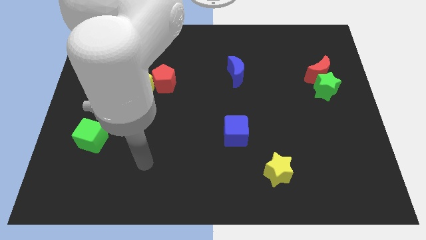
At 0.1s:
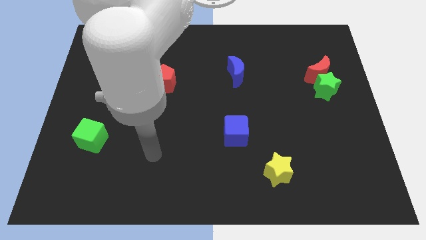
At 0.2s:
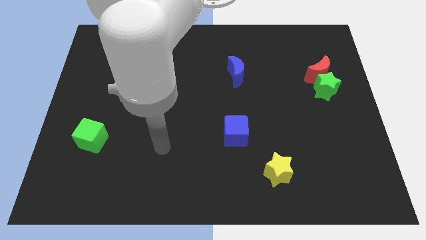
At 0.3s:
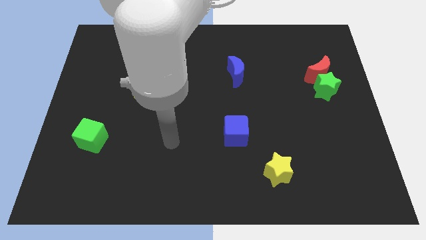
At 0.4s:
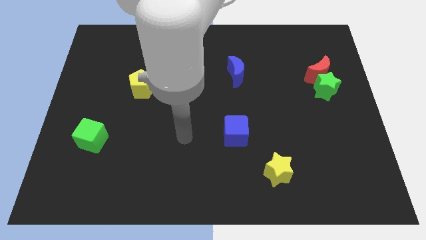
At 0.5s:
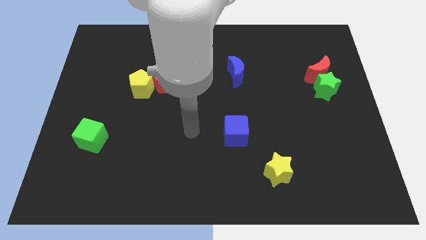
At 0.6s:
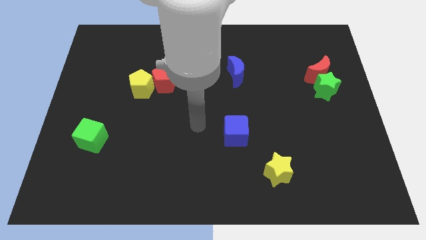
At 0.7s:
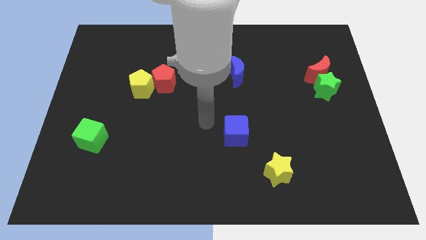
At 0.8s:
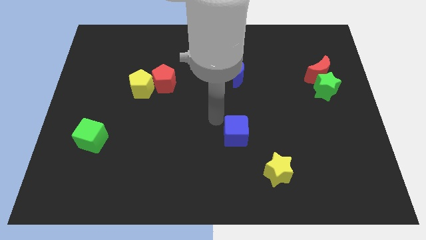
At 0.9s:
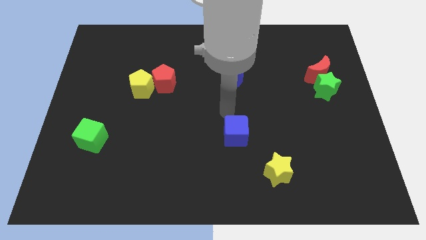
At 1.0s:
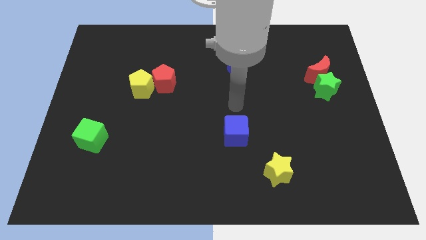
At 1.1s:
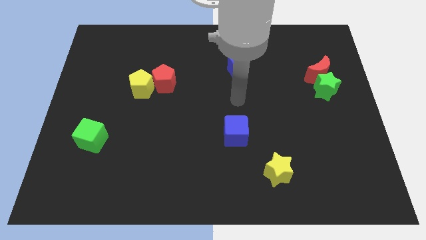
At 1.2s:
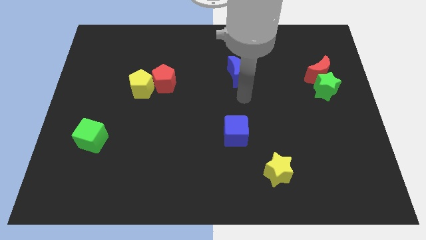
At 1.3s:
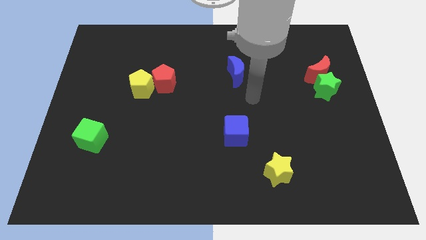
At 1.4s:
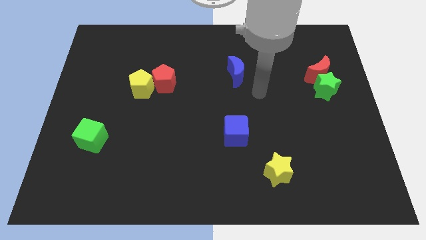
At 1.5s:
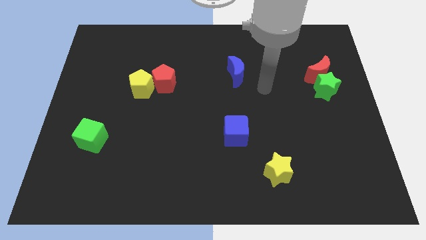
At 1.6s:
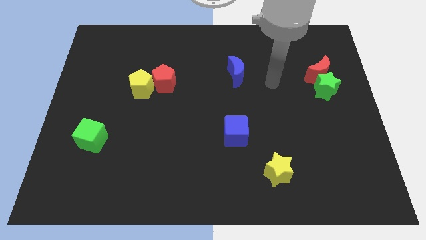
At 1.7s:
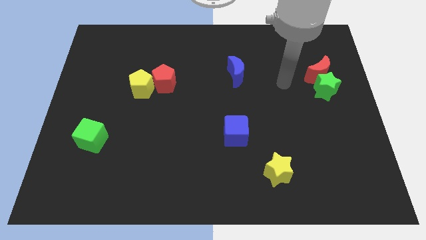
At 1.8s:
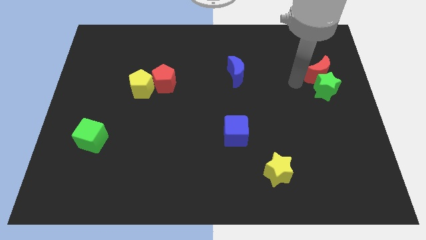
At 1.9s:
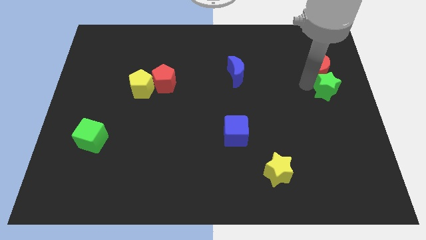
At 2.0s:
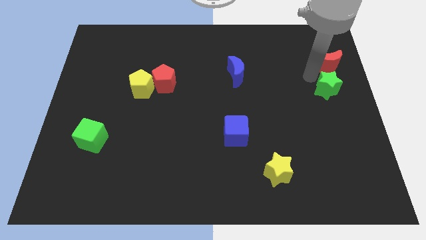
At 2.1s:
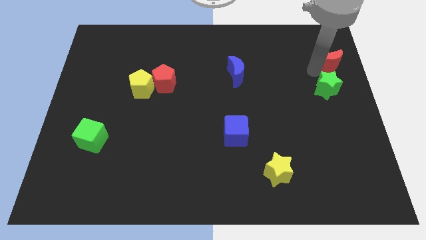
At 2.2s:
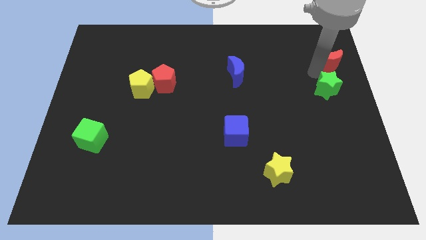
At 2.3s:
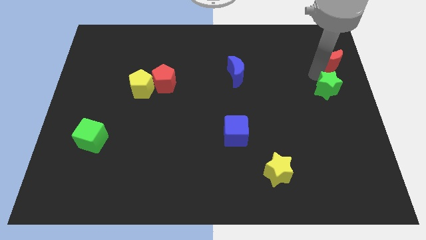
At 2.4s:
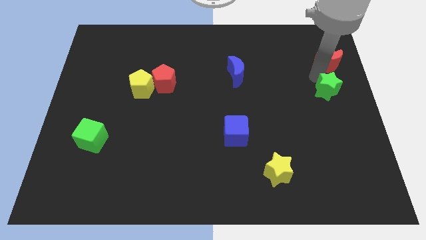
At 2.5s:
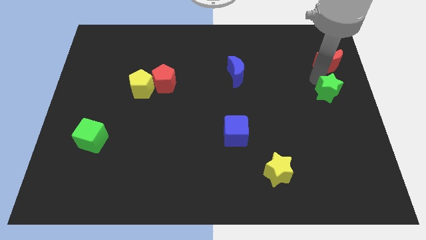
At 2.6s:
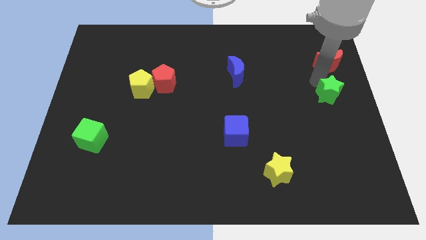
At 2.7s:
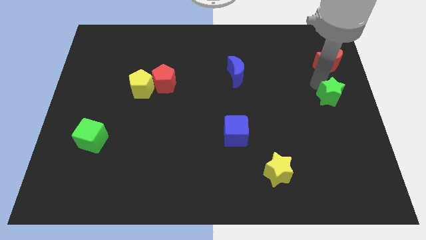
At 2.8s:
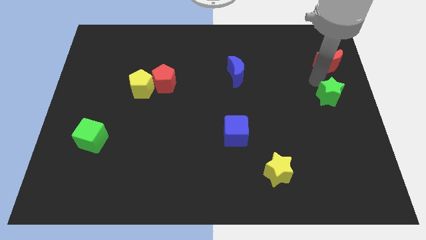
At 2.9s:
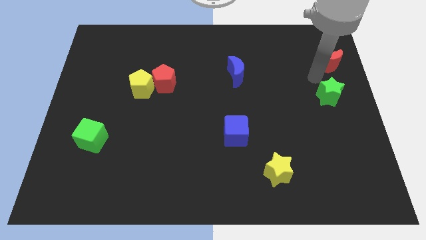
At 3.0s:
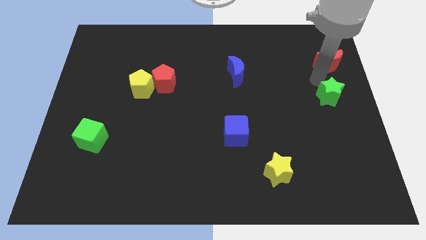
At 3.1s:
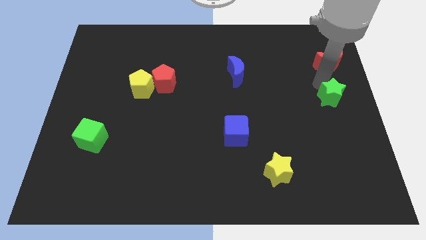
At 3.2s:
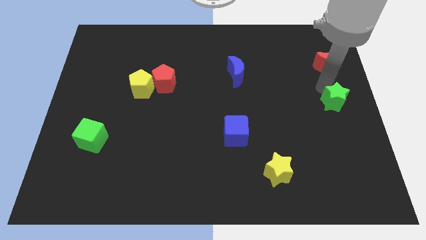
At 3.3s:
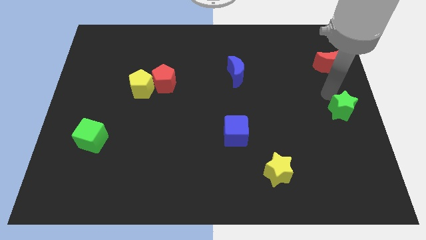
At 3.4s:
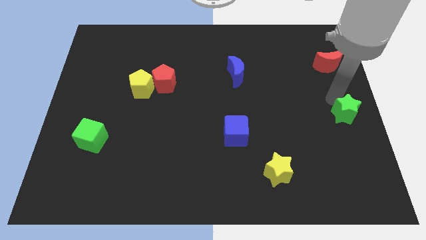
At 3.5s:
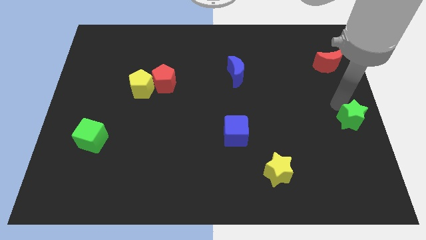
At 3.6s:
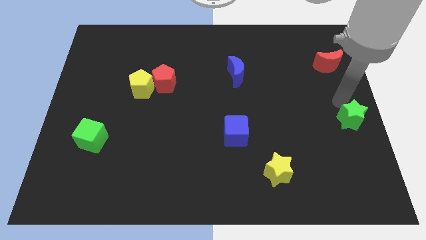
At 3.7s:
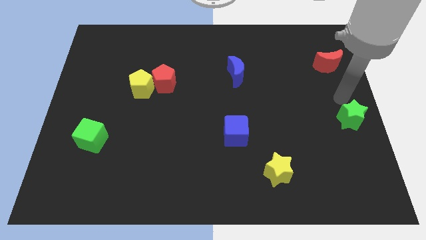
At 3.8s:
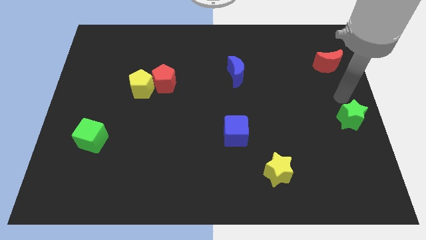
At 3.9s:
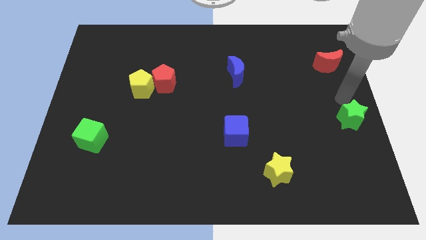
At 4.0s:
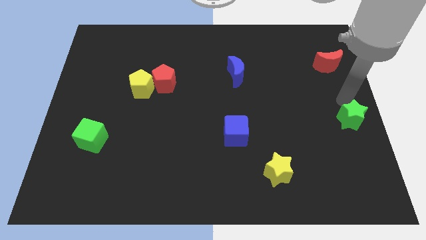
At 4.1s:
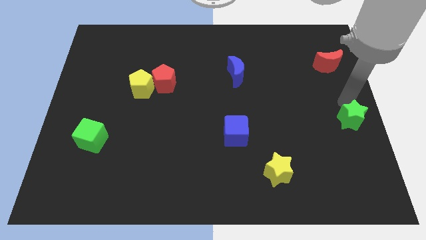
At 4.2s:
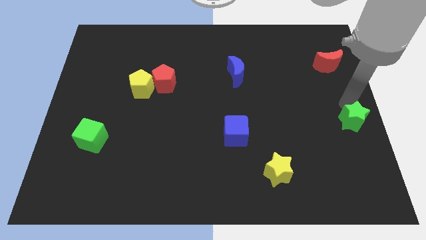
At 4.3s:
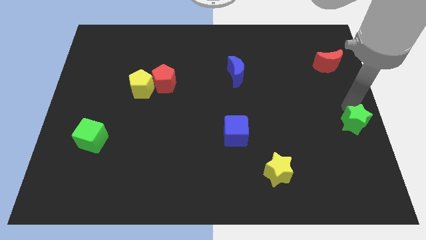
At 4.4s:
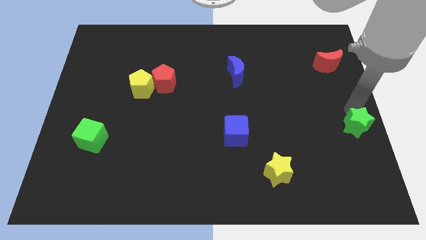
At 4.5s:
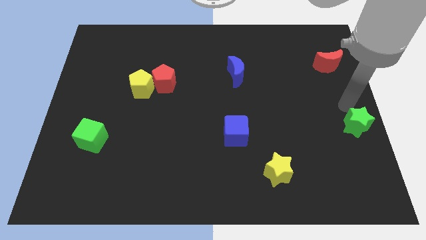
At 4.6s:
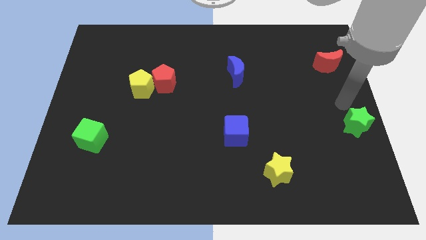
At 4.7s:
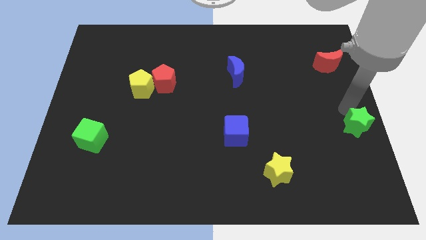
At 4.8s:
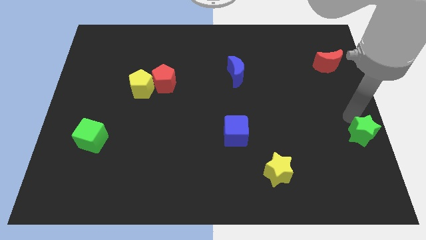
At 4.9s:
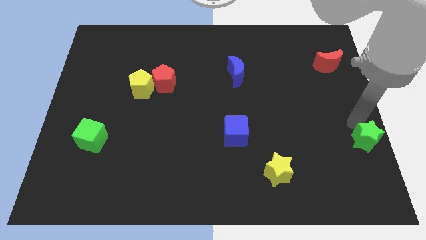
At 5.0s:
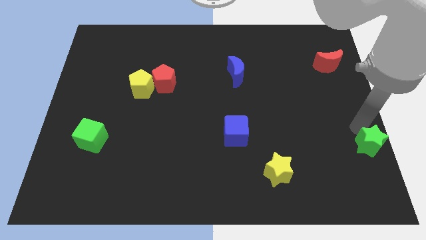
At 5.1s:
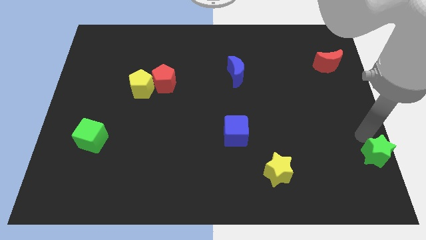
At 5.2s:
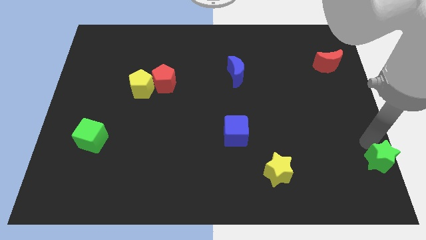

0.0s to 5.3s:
push the green star to the bottom right corner

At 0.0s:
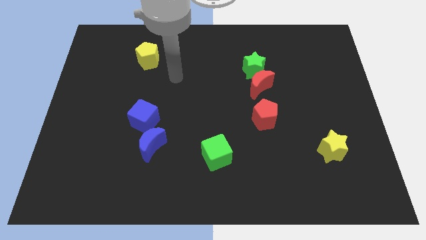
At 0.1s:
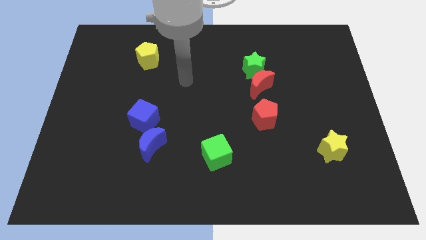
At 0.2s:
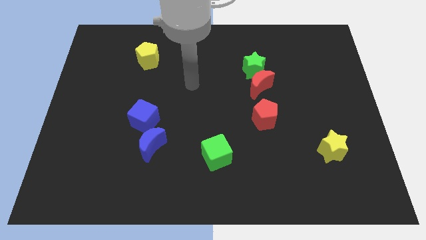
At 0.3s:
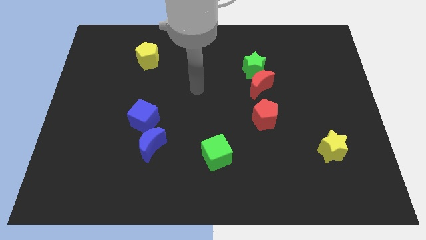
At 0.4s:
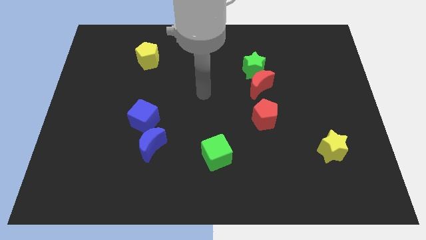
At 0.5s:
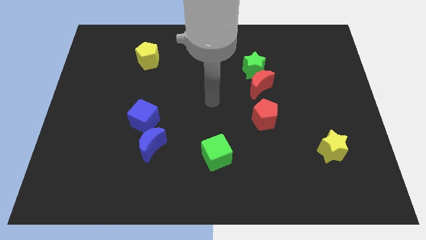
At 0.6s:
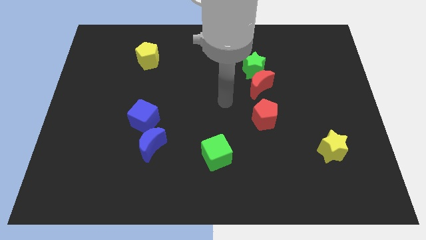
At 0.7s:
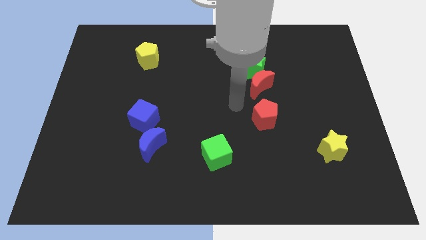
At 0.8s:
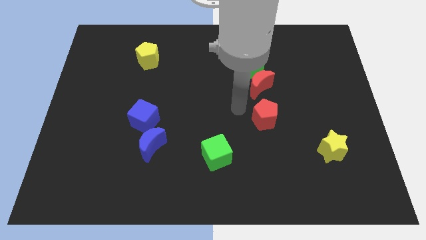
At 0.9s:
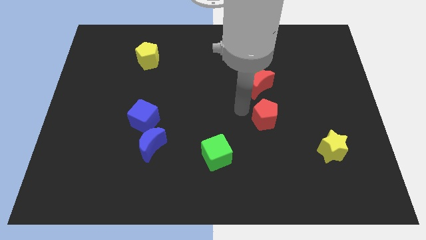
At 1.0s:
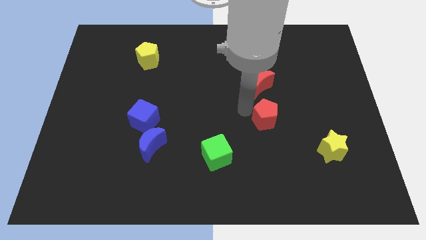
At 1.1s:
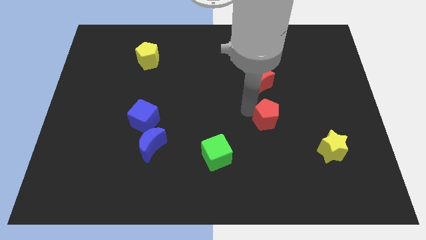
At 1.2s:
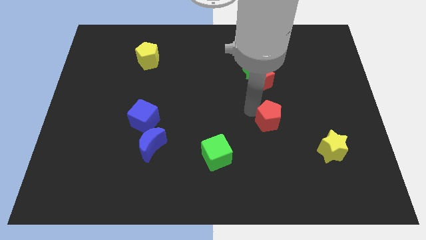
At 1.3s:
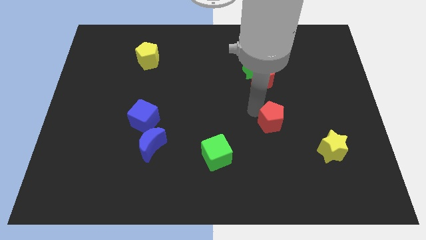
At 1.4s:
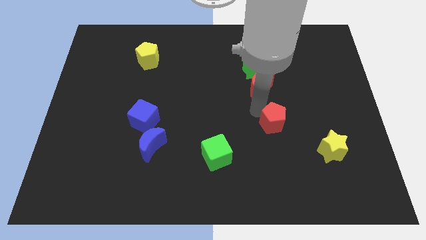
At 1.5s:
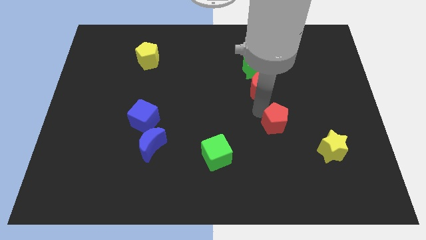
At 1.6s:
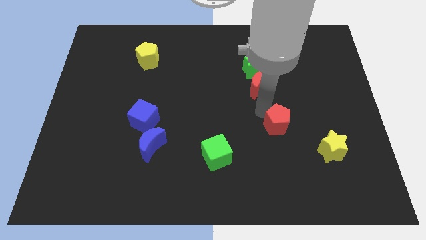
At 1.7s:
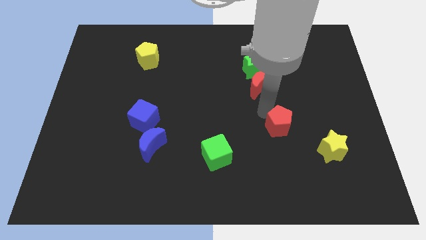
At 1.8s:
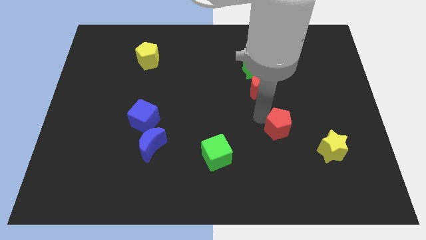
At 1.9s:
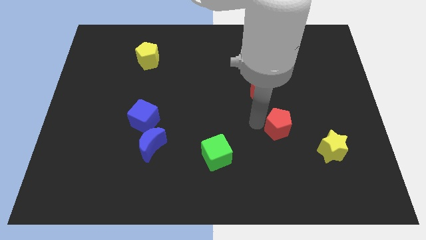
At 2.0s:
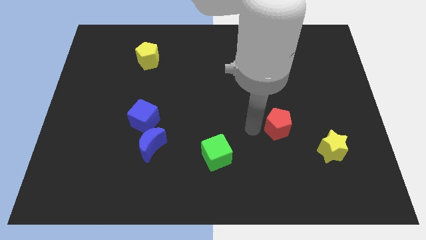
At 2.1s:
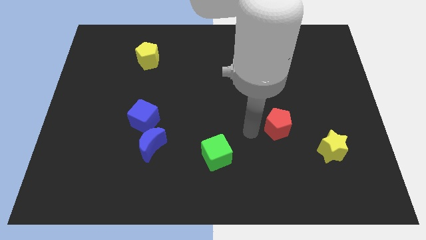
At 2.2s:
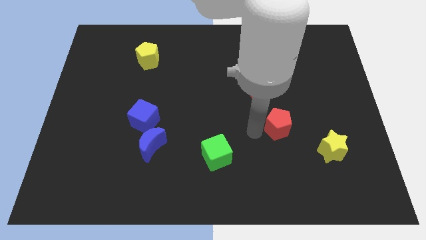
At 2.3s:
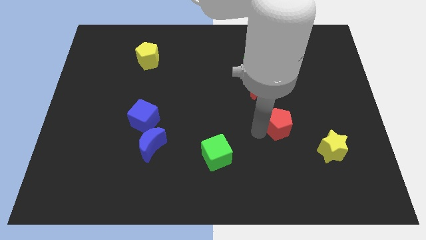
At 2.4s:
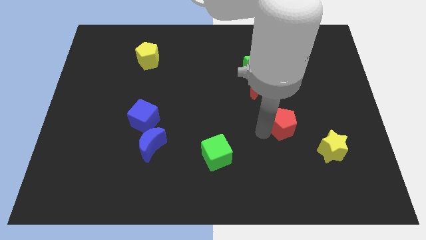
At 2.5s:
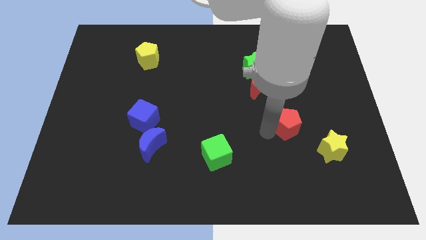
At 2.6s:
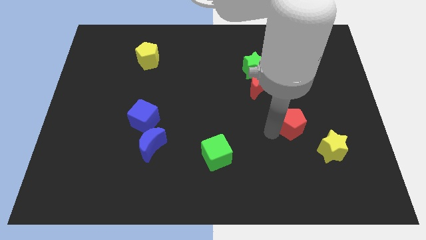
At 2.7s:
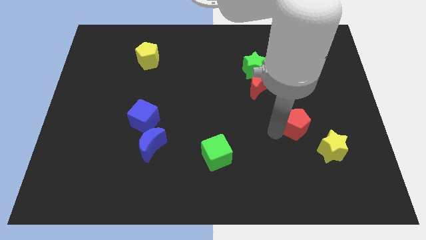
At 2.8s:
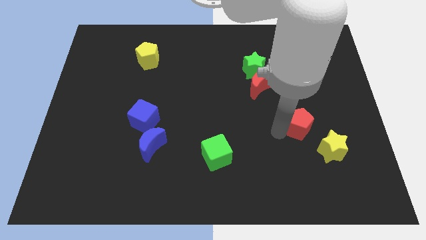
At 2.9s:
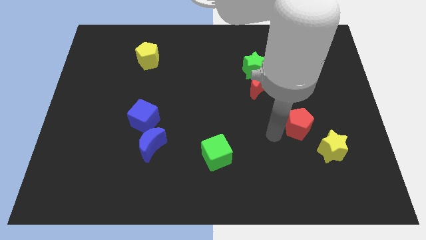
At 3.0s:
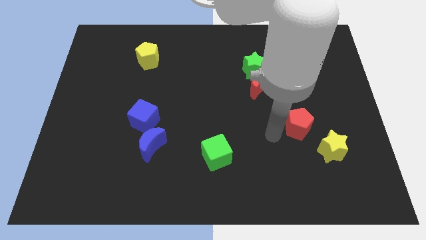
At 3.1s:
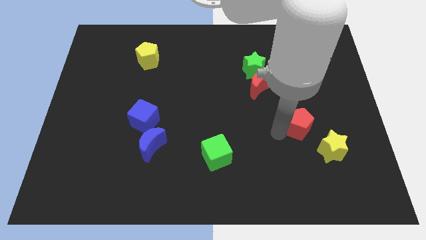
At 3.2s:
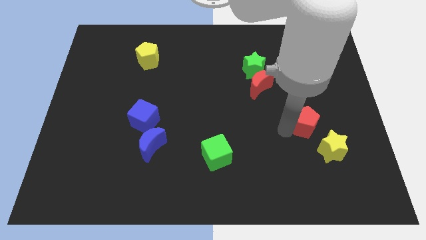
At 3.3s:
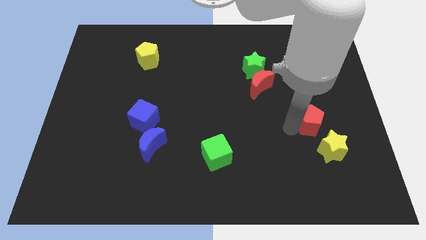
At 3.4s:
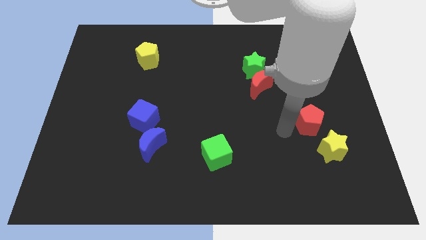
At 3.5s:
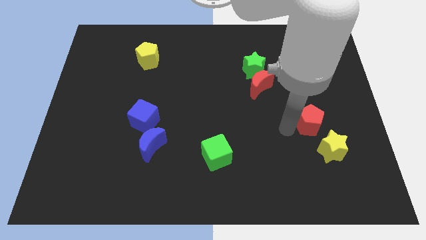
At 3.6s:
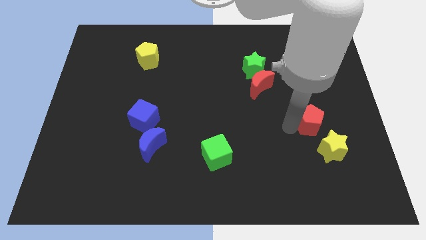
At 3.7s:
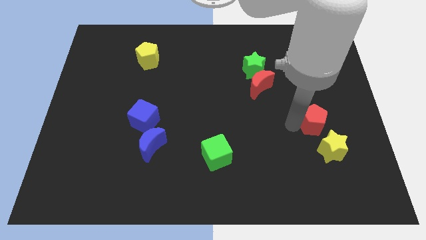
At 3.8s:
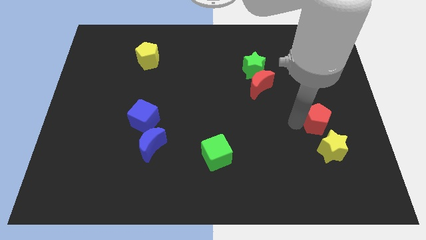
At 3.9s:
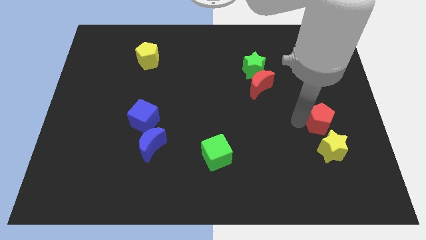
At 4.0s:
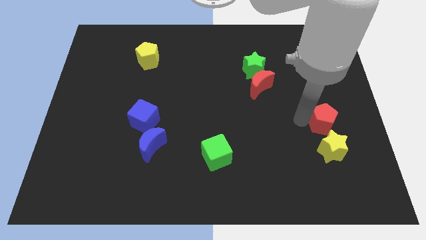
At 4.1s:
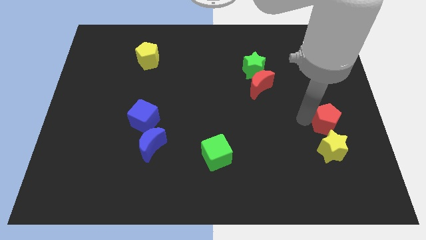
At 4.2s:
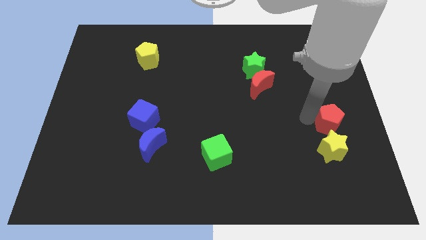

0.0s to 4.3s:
slide the red pentagon to the right side of the board
